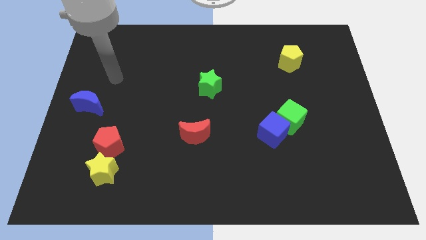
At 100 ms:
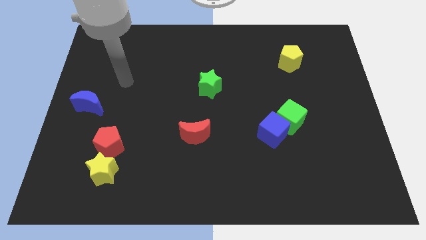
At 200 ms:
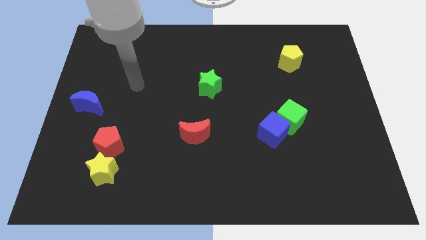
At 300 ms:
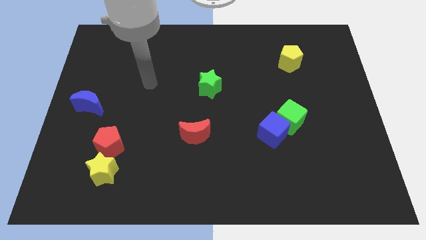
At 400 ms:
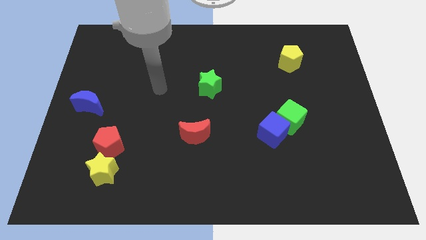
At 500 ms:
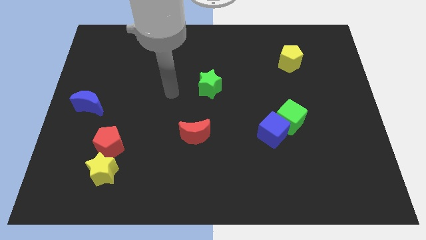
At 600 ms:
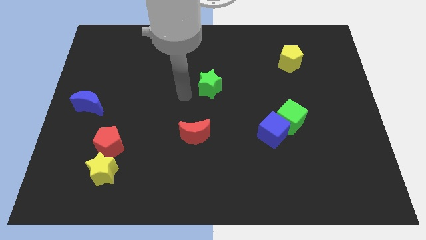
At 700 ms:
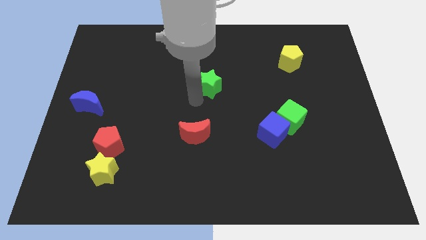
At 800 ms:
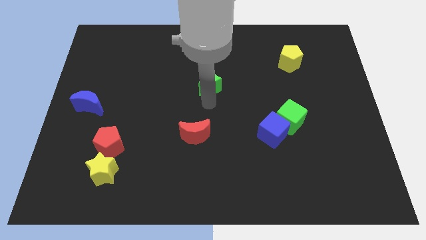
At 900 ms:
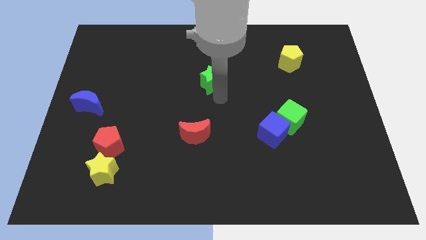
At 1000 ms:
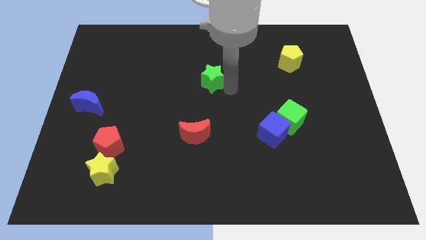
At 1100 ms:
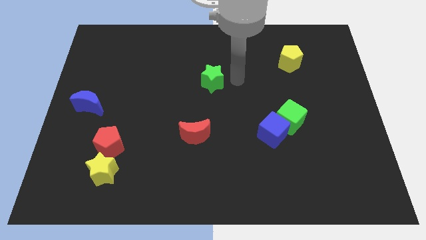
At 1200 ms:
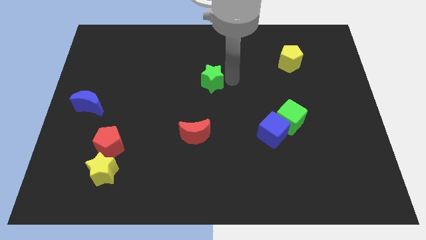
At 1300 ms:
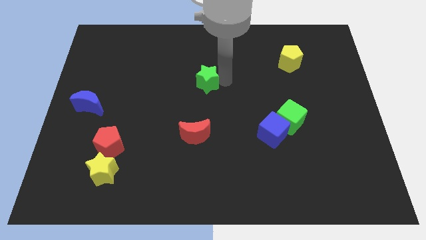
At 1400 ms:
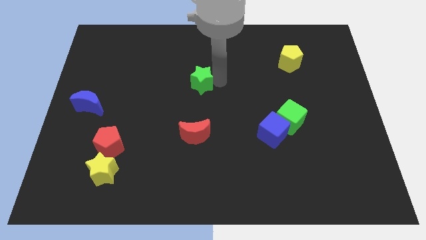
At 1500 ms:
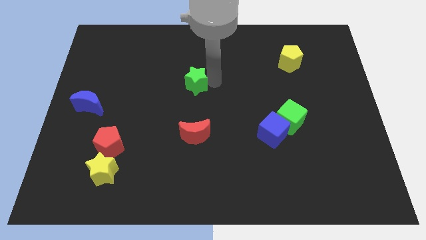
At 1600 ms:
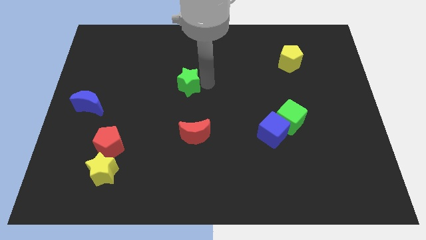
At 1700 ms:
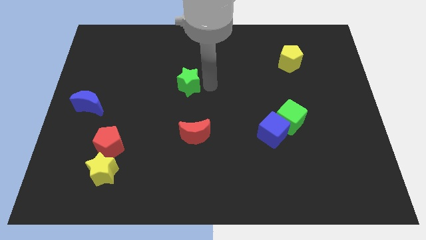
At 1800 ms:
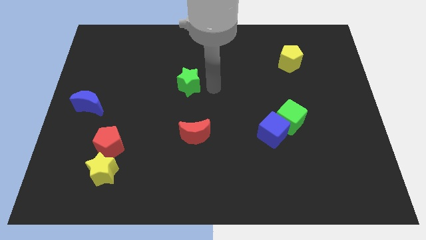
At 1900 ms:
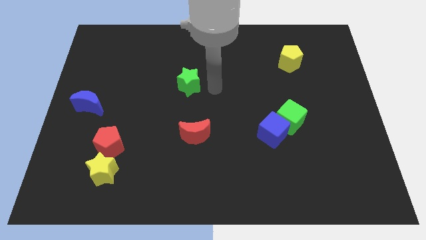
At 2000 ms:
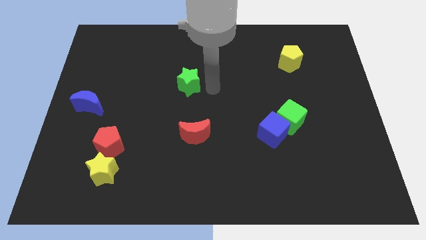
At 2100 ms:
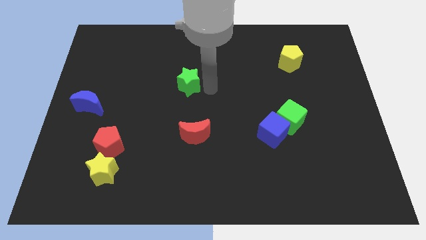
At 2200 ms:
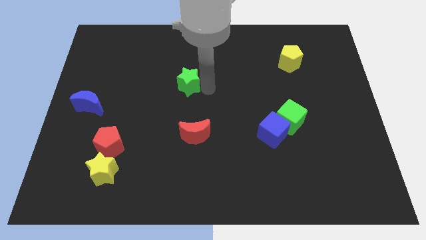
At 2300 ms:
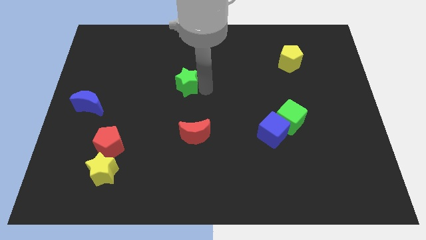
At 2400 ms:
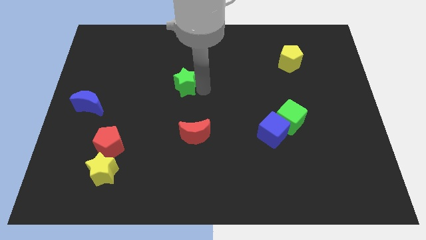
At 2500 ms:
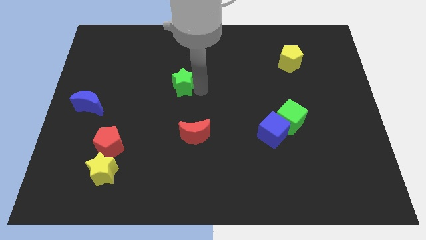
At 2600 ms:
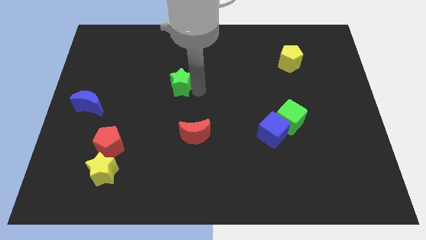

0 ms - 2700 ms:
slide the green star to the left a little bit

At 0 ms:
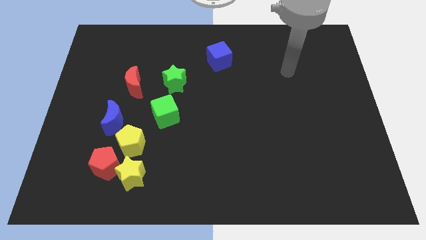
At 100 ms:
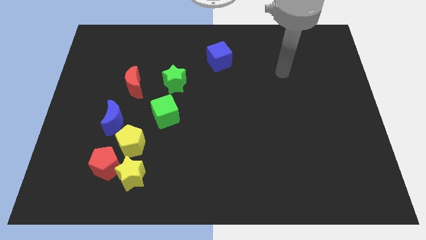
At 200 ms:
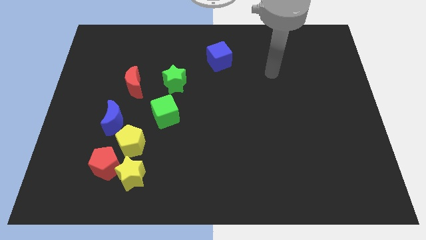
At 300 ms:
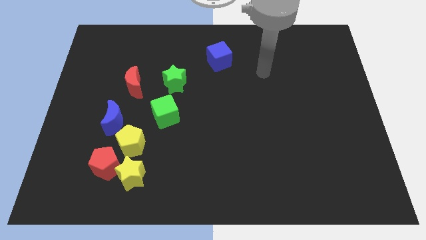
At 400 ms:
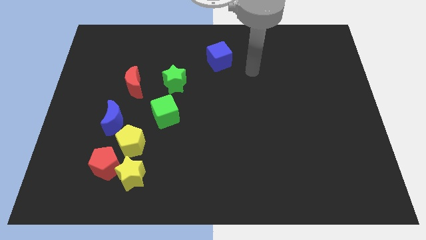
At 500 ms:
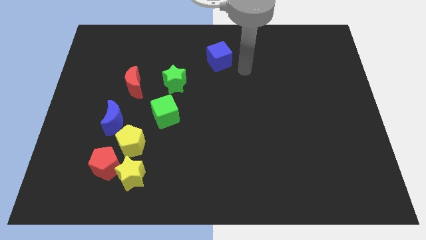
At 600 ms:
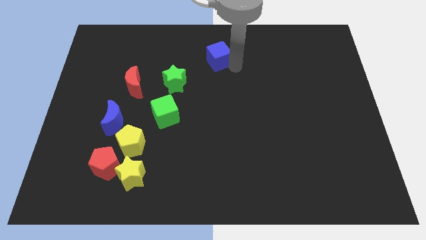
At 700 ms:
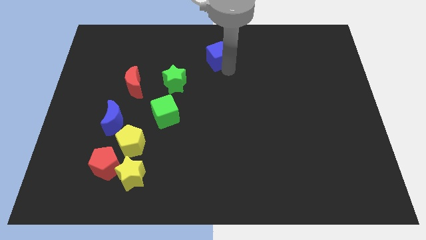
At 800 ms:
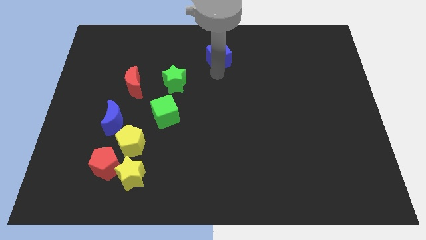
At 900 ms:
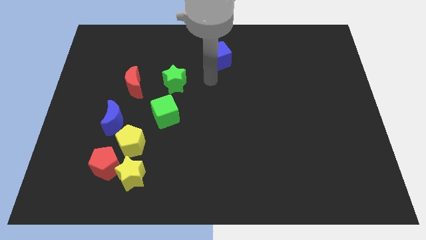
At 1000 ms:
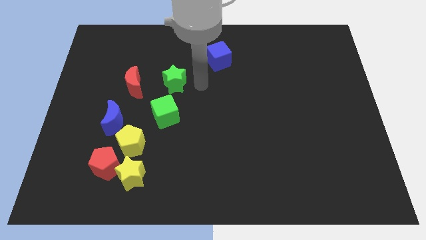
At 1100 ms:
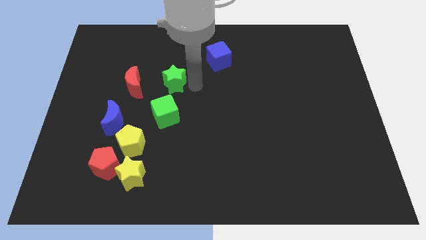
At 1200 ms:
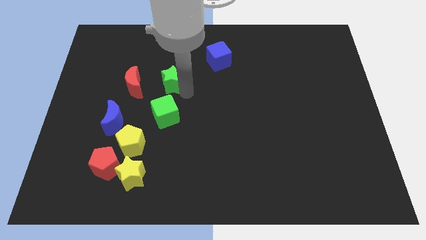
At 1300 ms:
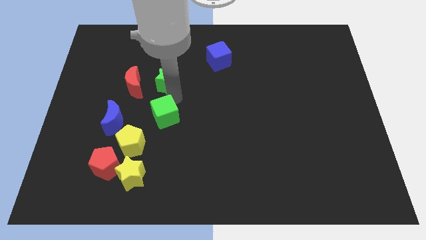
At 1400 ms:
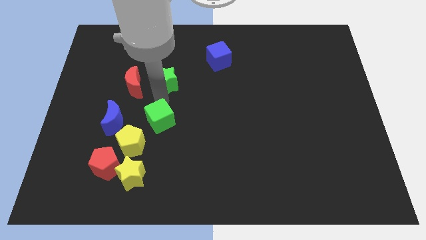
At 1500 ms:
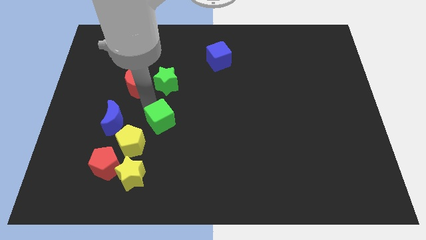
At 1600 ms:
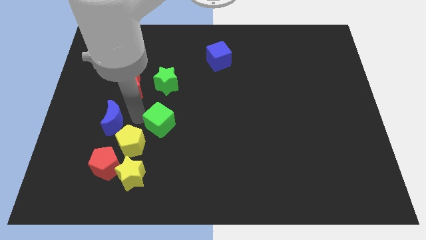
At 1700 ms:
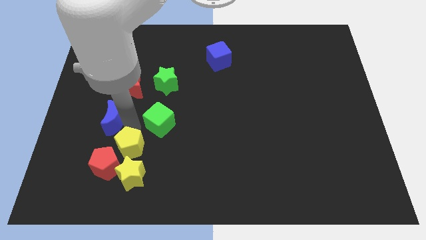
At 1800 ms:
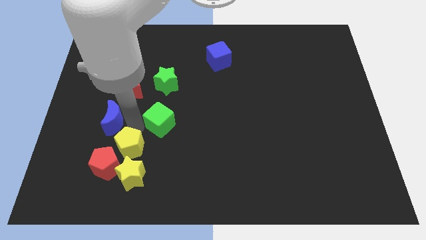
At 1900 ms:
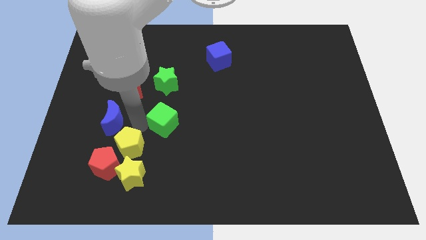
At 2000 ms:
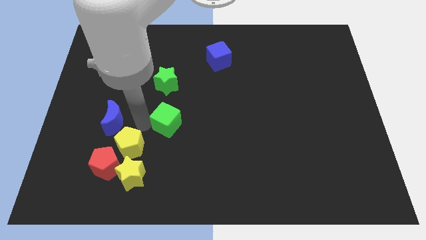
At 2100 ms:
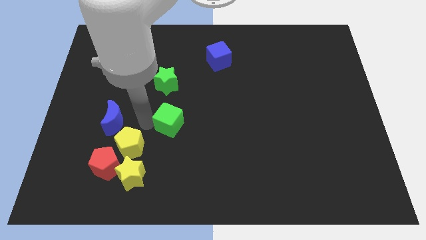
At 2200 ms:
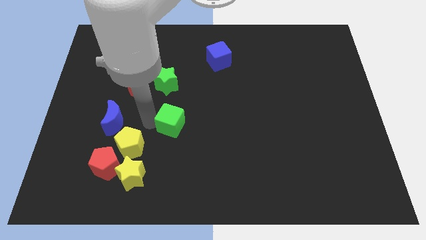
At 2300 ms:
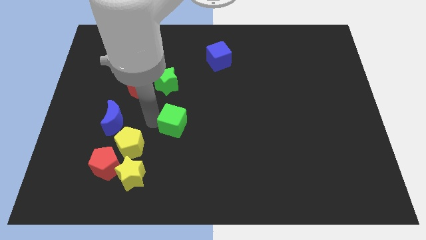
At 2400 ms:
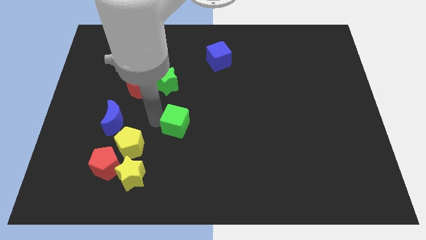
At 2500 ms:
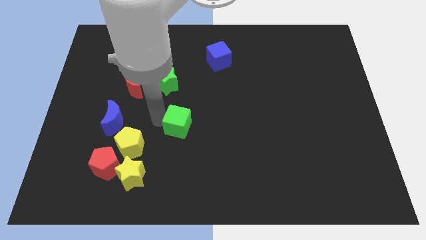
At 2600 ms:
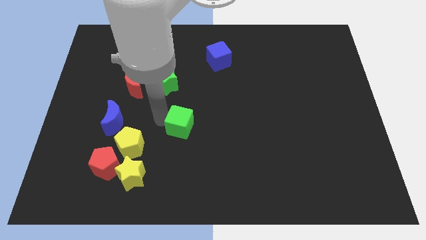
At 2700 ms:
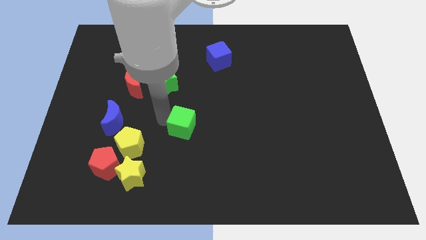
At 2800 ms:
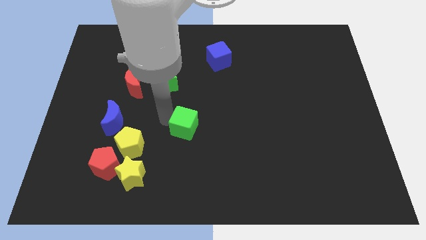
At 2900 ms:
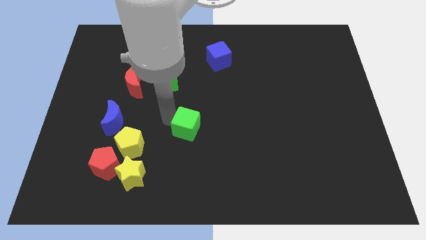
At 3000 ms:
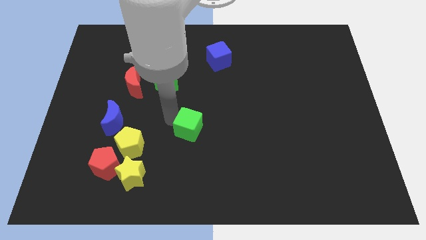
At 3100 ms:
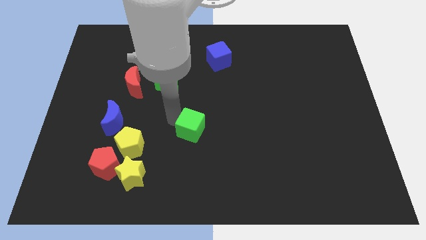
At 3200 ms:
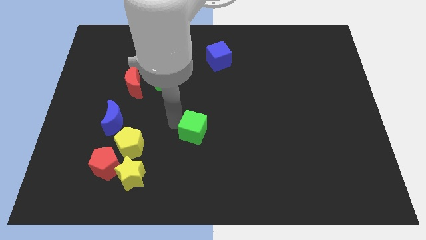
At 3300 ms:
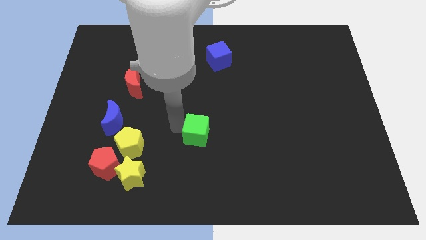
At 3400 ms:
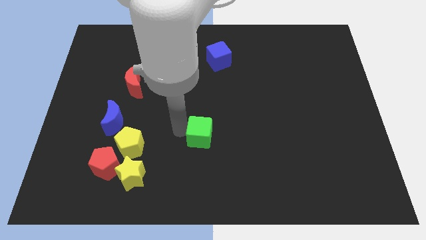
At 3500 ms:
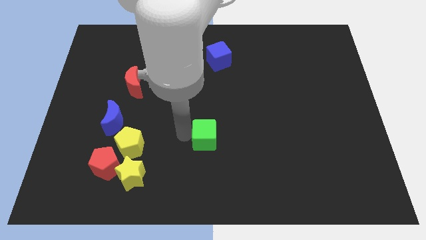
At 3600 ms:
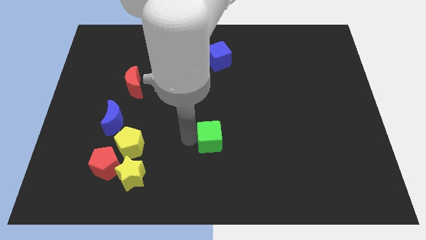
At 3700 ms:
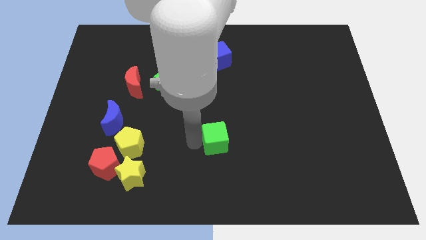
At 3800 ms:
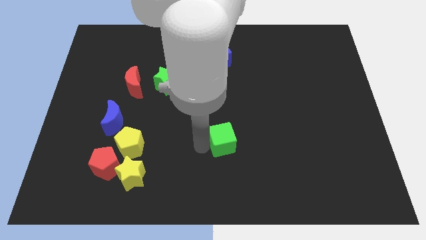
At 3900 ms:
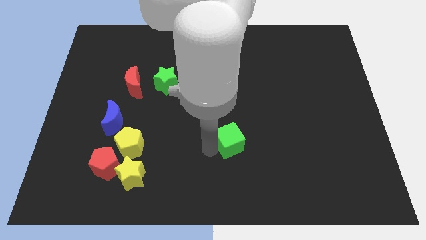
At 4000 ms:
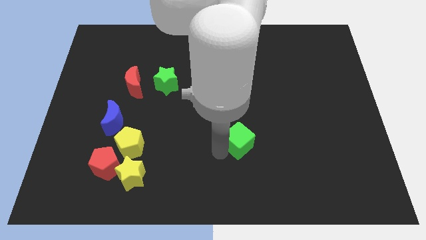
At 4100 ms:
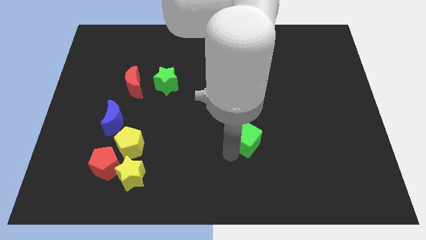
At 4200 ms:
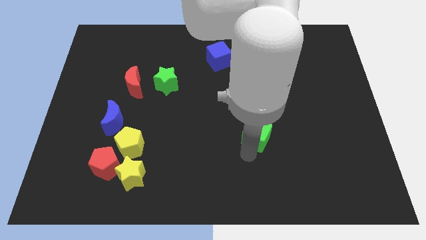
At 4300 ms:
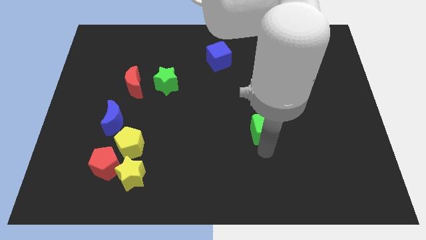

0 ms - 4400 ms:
push the green cube to the right

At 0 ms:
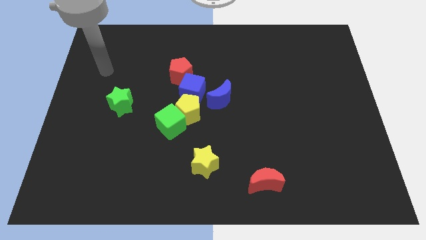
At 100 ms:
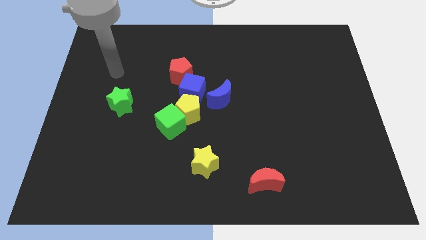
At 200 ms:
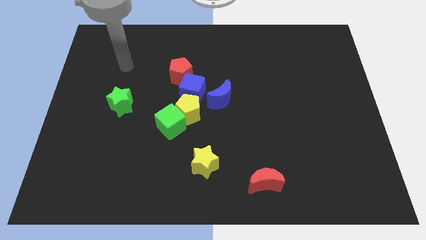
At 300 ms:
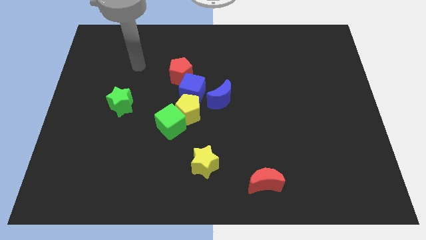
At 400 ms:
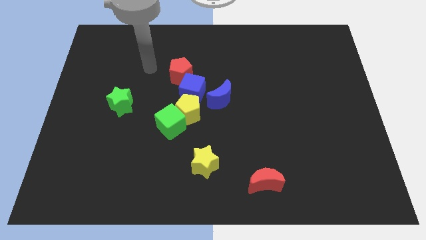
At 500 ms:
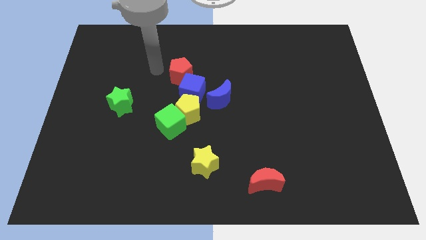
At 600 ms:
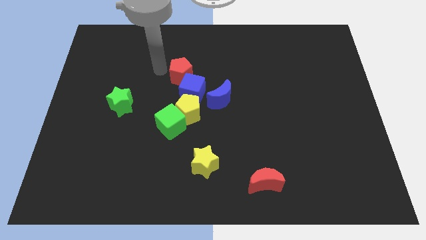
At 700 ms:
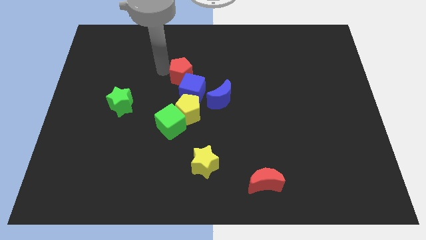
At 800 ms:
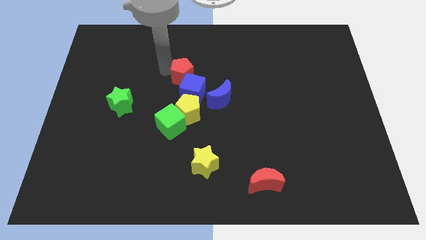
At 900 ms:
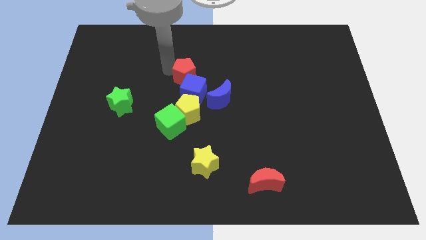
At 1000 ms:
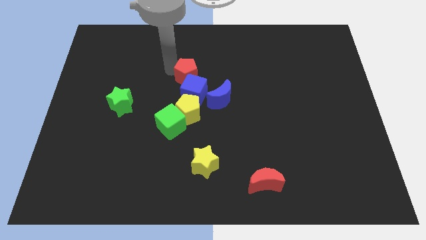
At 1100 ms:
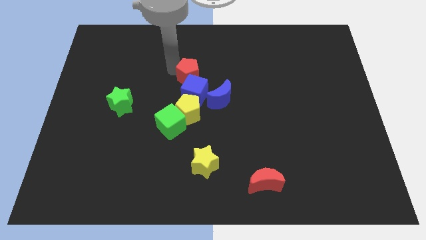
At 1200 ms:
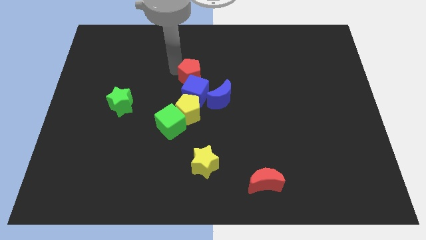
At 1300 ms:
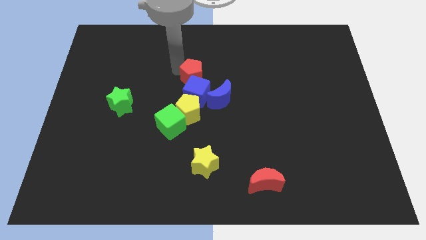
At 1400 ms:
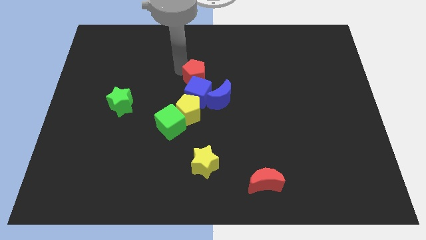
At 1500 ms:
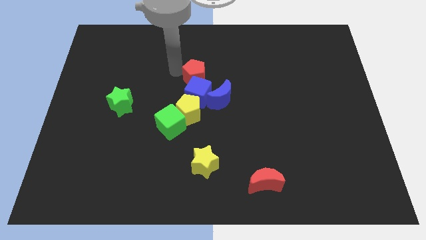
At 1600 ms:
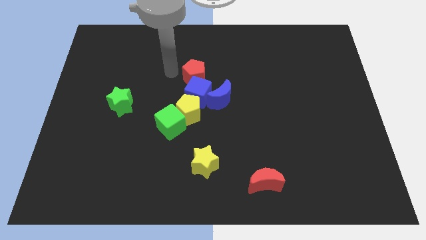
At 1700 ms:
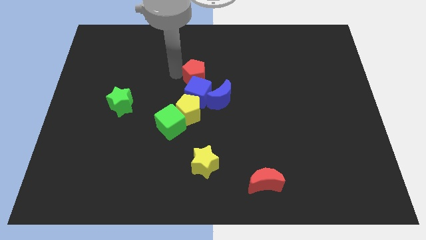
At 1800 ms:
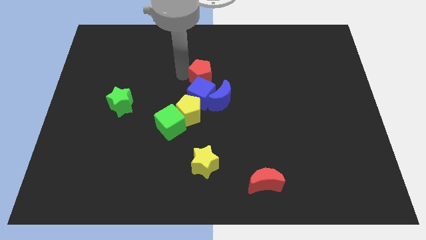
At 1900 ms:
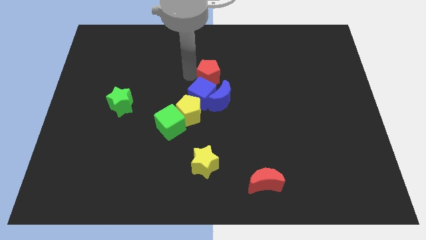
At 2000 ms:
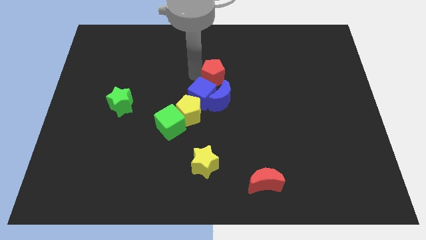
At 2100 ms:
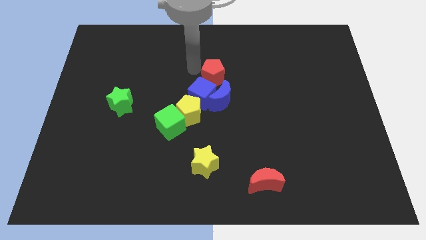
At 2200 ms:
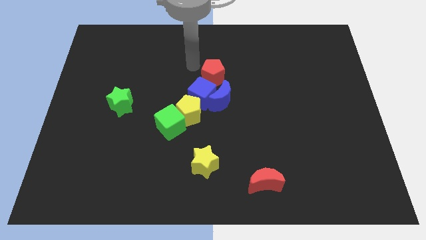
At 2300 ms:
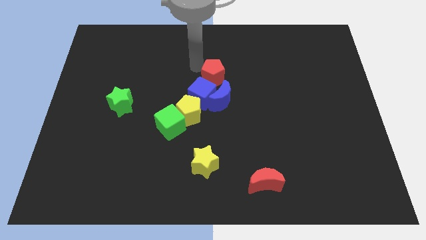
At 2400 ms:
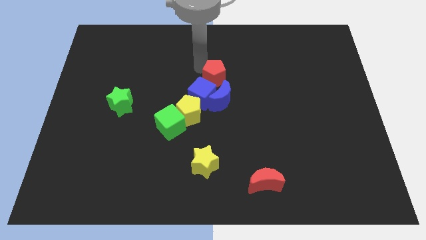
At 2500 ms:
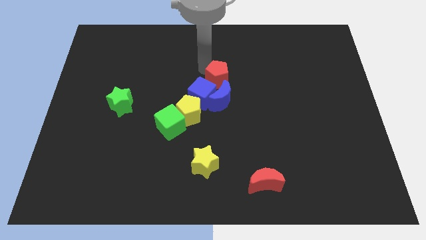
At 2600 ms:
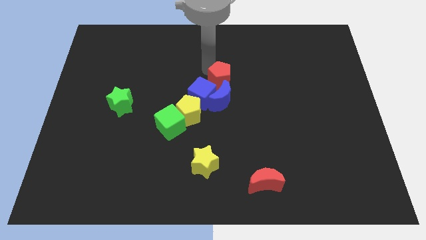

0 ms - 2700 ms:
slightly move the red pentagon down and to the right
